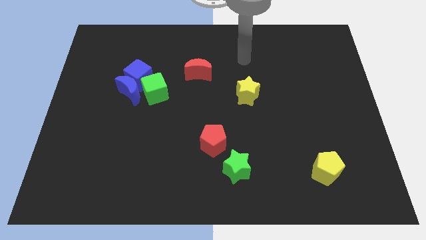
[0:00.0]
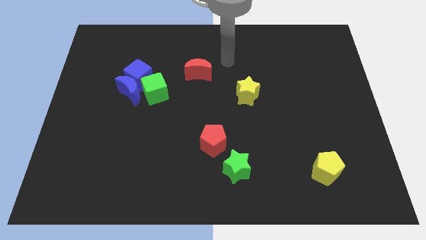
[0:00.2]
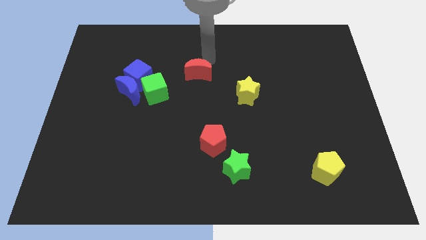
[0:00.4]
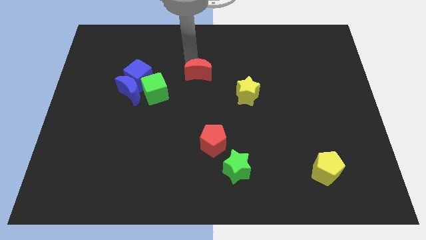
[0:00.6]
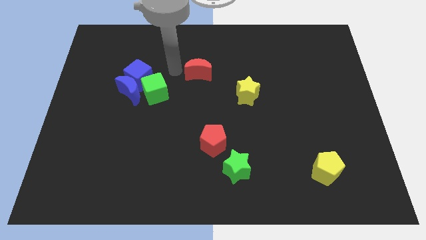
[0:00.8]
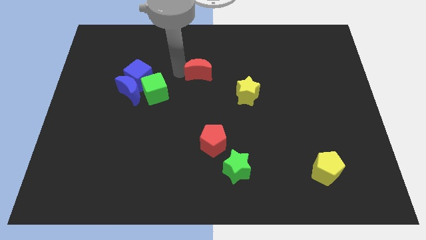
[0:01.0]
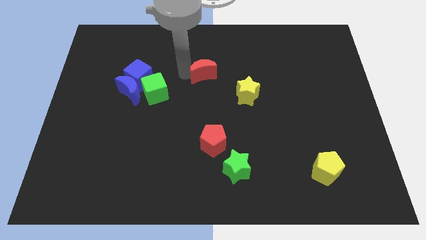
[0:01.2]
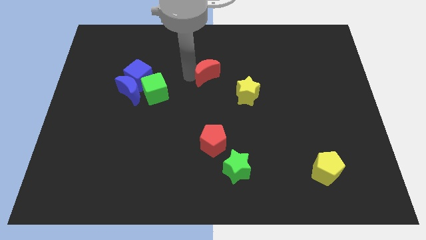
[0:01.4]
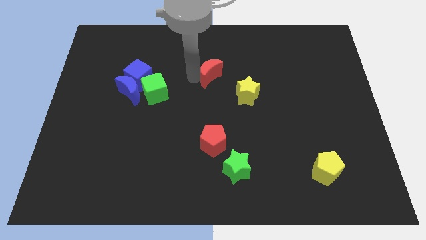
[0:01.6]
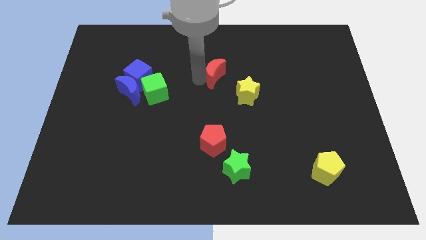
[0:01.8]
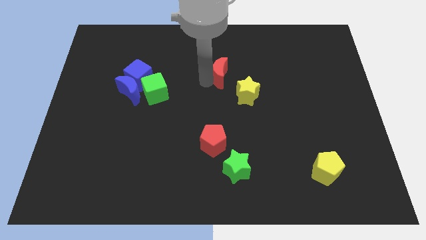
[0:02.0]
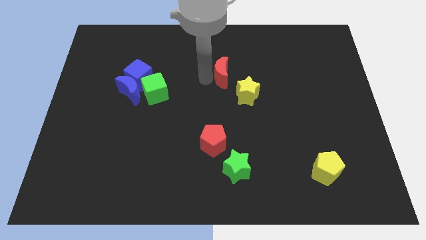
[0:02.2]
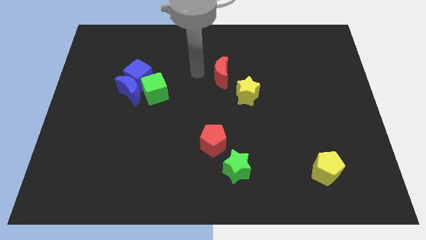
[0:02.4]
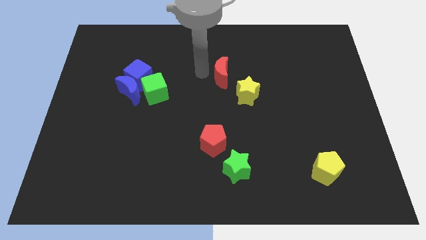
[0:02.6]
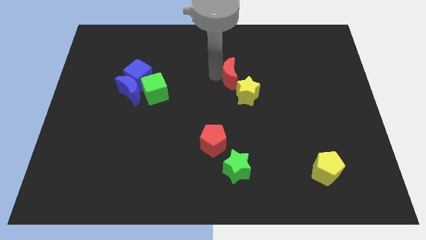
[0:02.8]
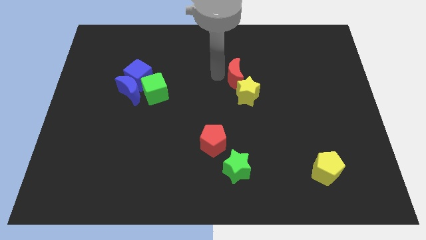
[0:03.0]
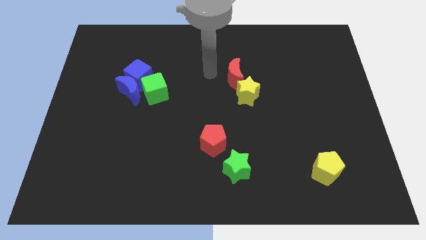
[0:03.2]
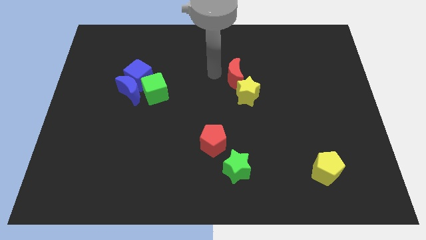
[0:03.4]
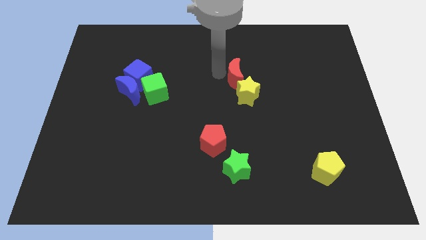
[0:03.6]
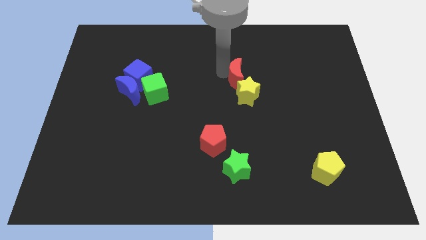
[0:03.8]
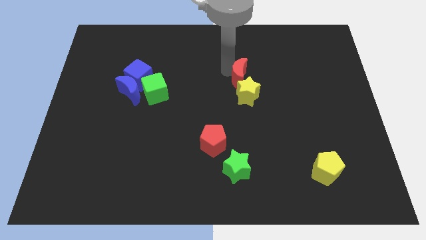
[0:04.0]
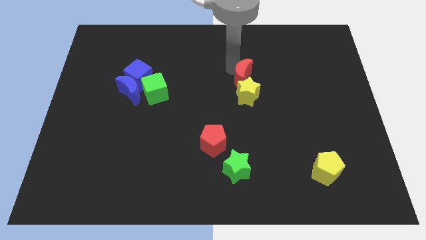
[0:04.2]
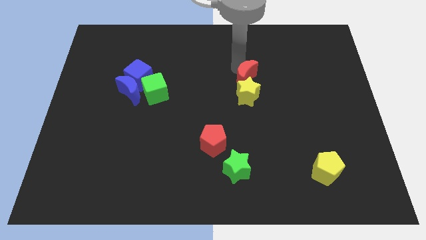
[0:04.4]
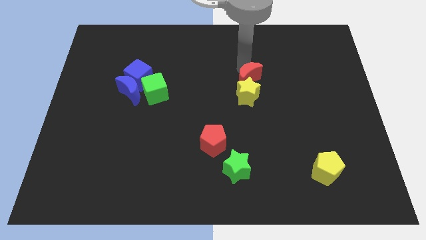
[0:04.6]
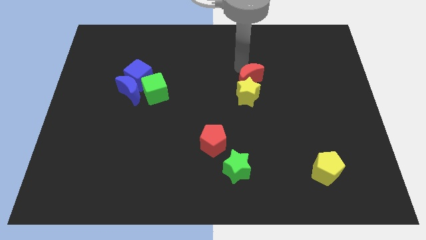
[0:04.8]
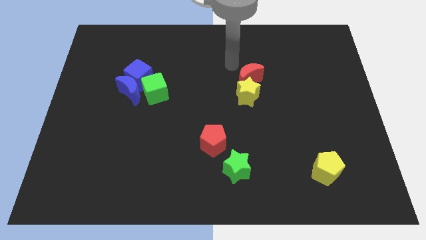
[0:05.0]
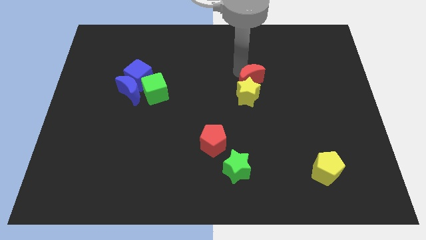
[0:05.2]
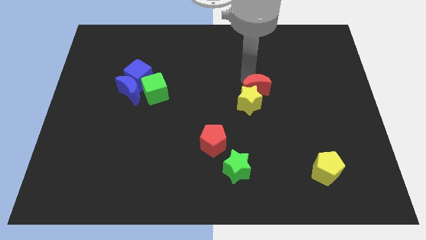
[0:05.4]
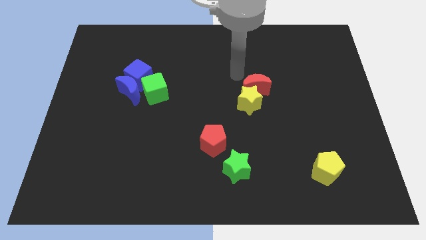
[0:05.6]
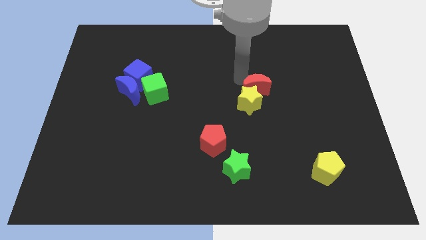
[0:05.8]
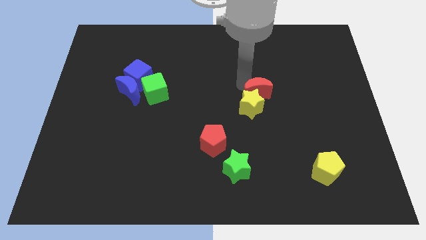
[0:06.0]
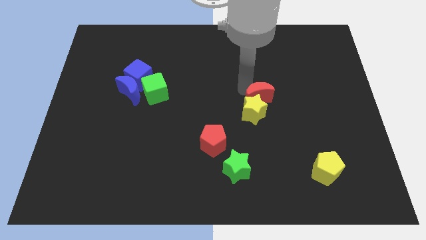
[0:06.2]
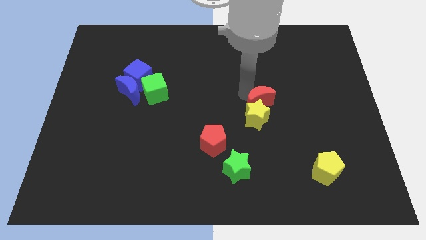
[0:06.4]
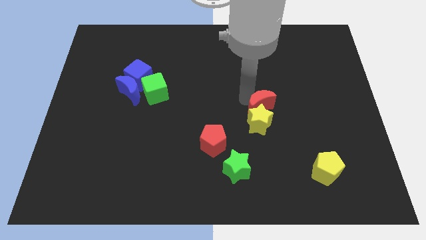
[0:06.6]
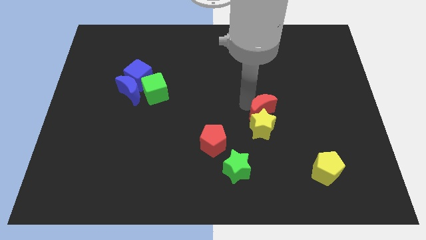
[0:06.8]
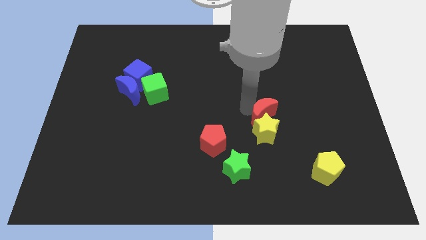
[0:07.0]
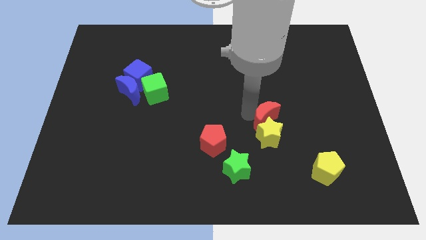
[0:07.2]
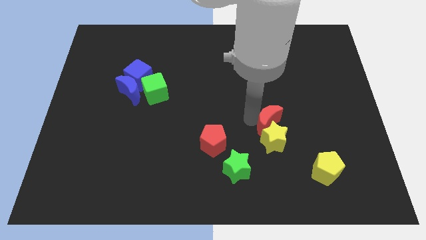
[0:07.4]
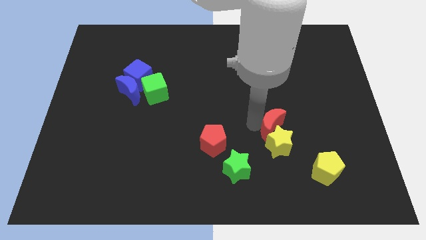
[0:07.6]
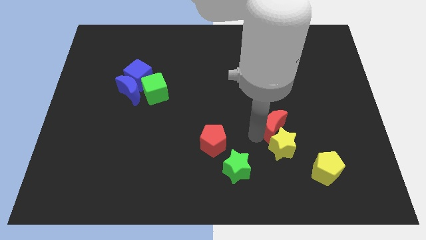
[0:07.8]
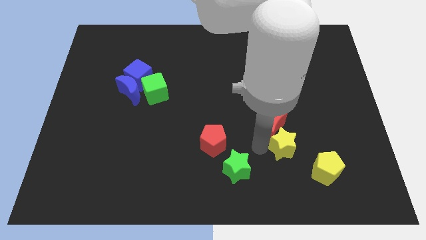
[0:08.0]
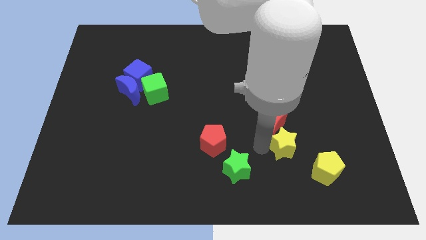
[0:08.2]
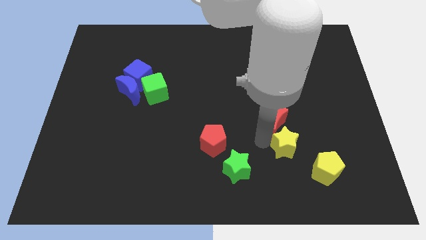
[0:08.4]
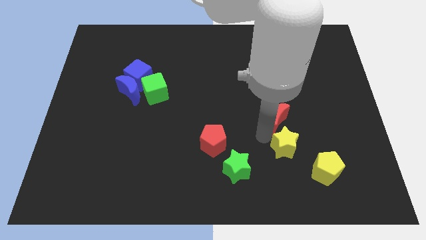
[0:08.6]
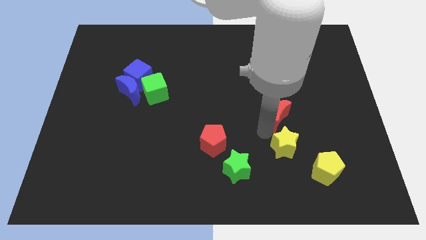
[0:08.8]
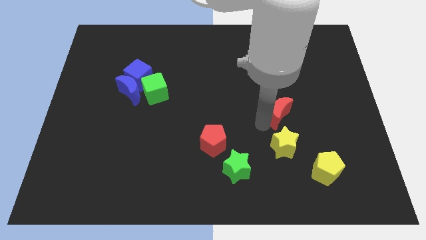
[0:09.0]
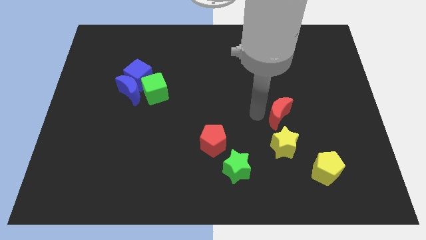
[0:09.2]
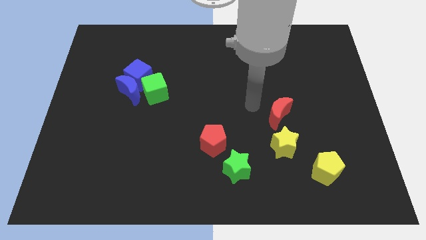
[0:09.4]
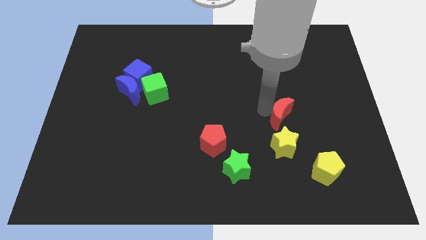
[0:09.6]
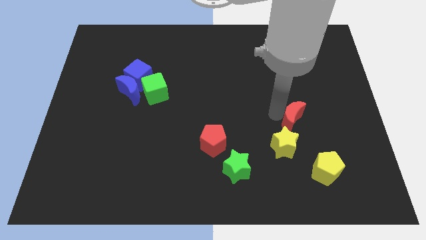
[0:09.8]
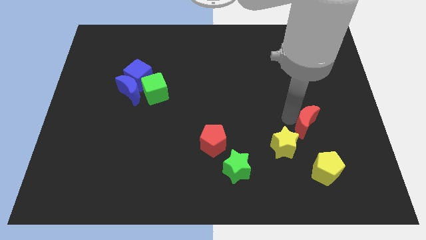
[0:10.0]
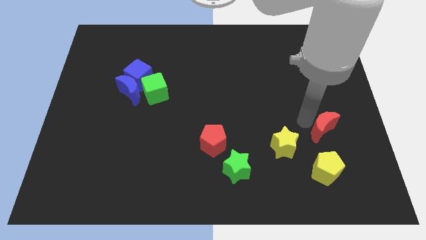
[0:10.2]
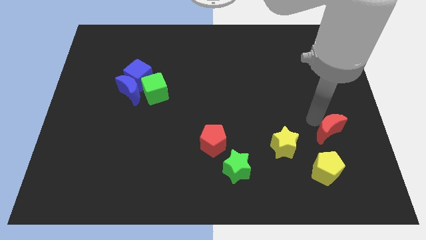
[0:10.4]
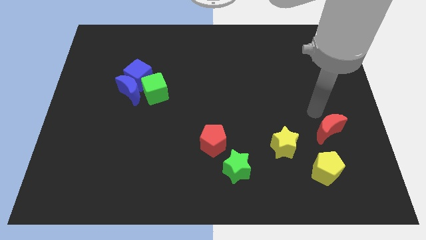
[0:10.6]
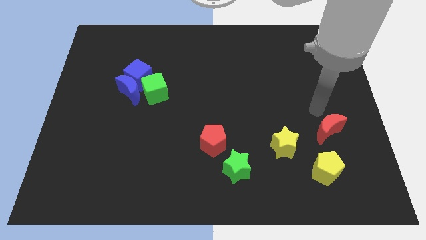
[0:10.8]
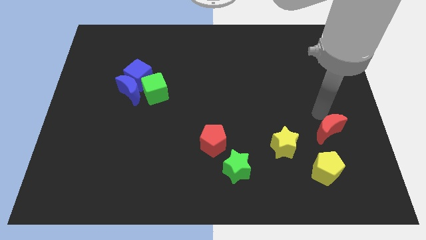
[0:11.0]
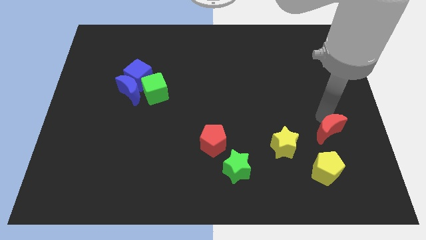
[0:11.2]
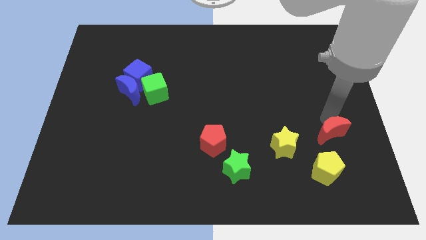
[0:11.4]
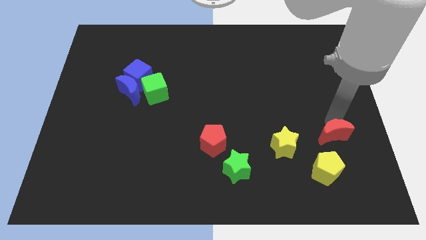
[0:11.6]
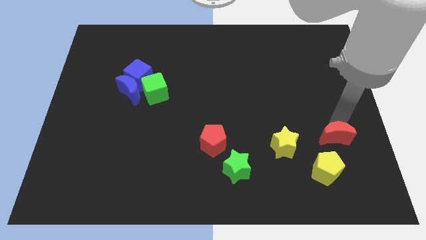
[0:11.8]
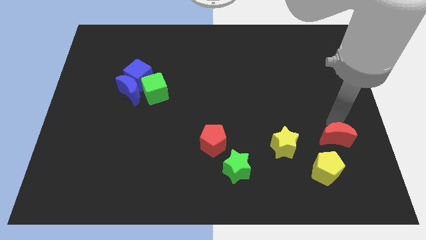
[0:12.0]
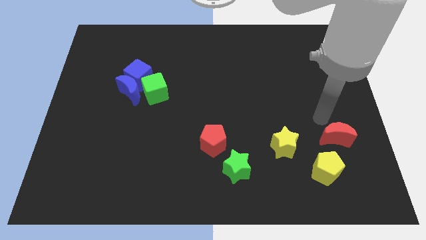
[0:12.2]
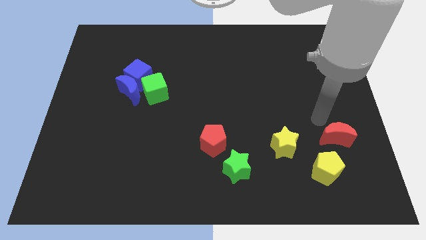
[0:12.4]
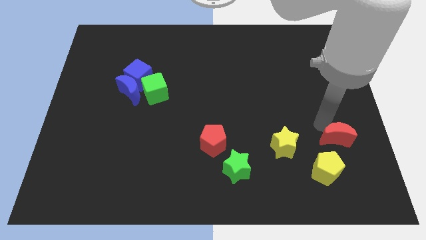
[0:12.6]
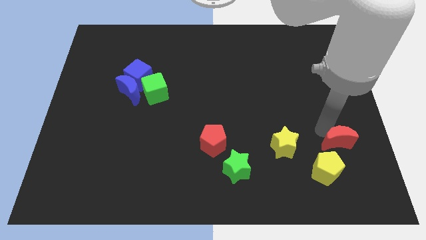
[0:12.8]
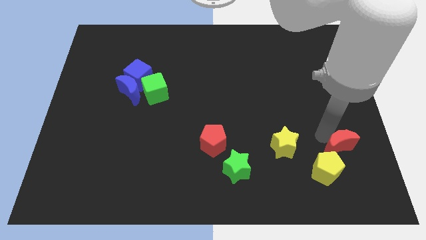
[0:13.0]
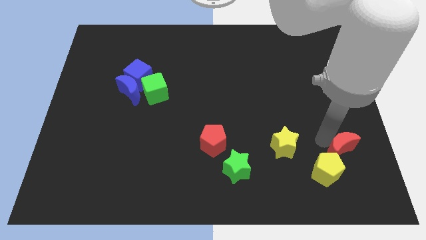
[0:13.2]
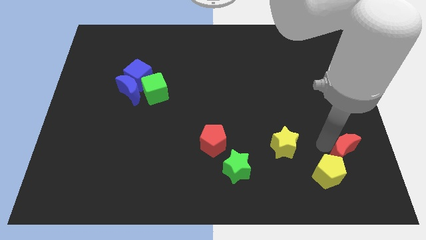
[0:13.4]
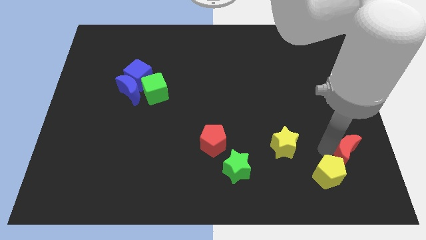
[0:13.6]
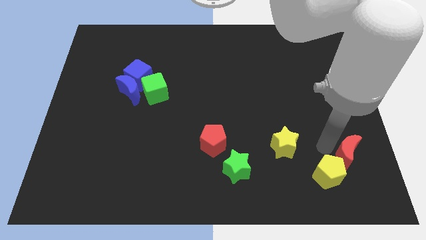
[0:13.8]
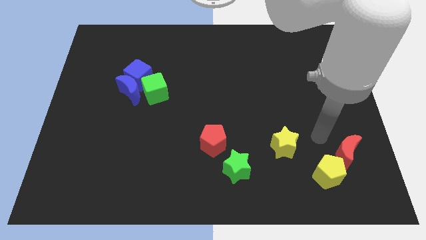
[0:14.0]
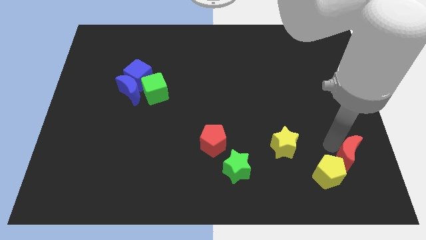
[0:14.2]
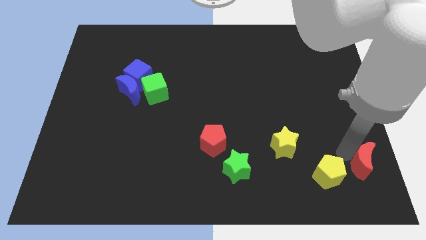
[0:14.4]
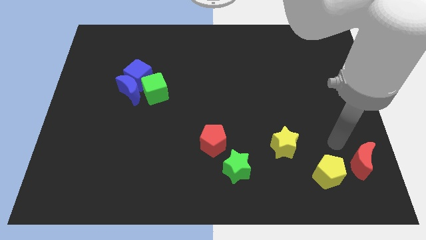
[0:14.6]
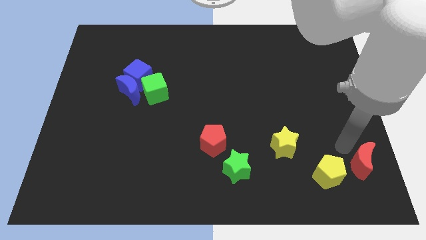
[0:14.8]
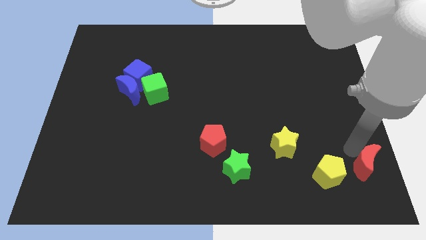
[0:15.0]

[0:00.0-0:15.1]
push the red moon to the bottom right
